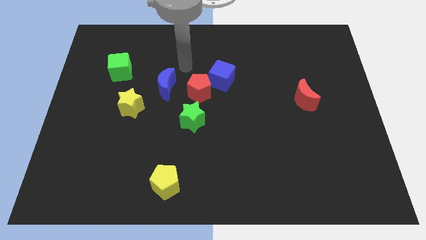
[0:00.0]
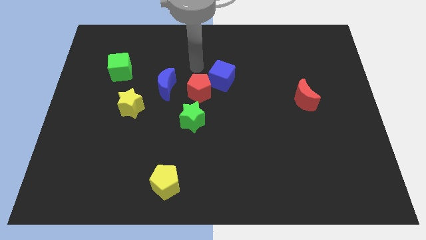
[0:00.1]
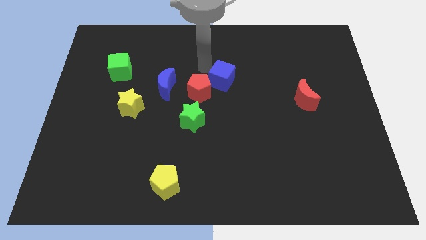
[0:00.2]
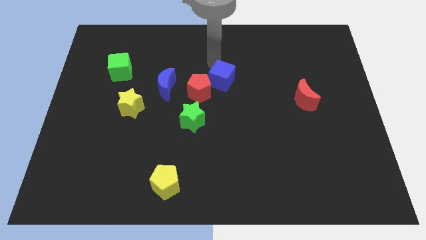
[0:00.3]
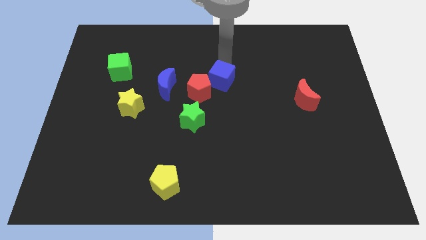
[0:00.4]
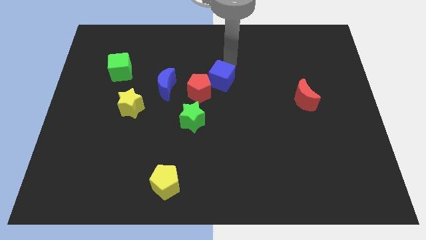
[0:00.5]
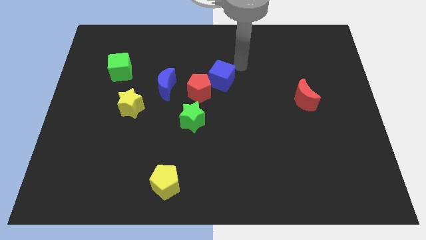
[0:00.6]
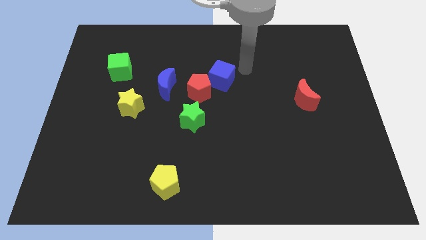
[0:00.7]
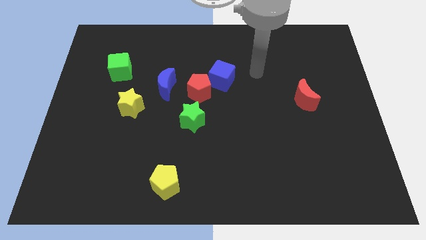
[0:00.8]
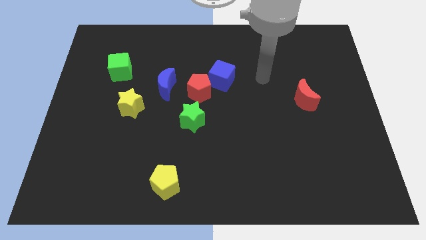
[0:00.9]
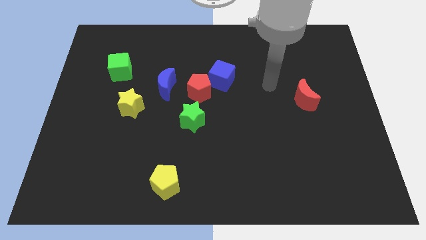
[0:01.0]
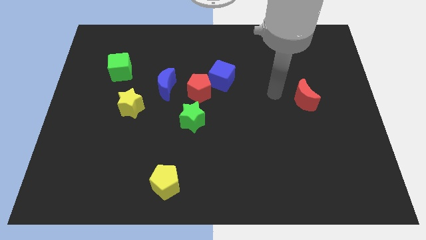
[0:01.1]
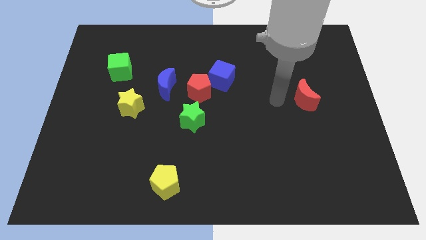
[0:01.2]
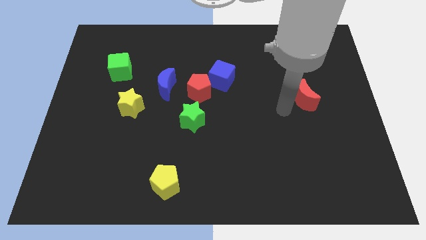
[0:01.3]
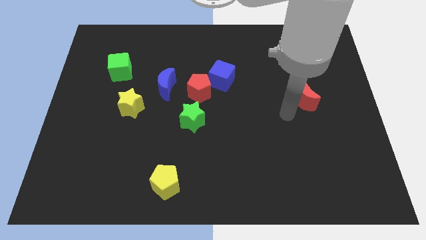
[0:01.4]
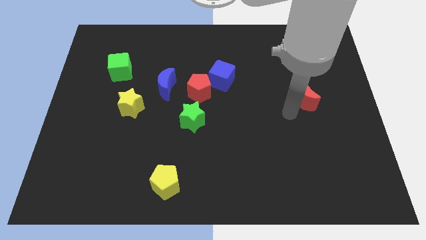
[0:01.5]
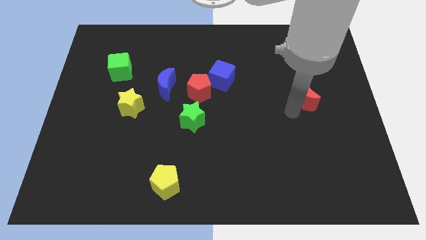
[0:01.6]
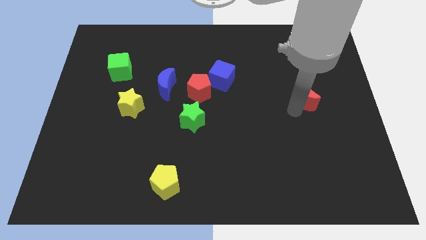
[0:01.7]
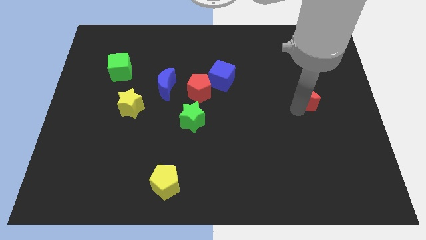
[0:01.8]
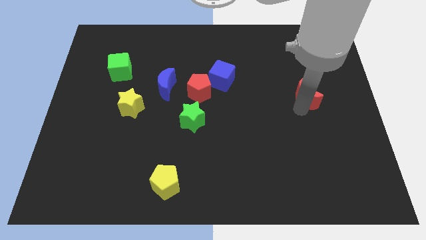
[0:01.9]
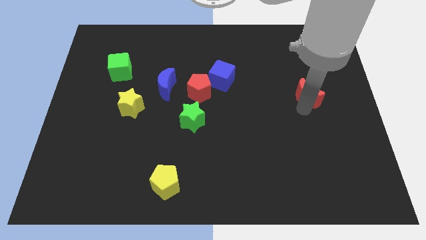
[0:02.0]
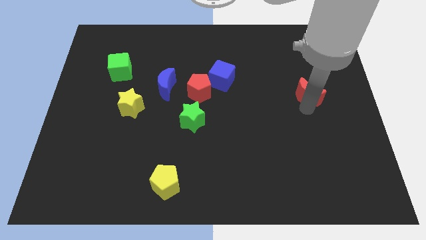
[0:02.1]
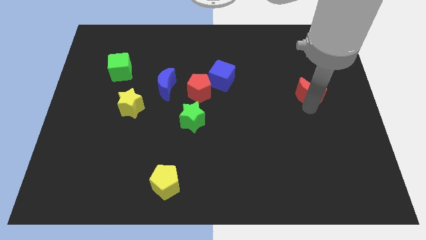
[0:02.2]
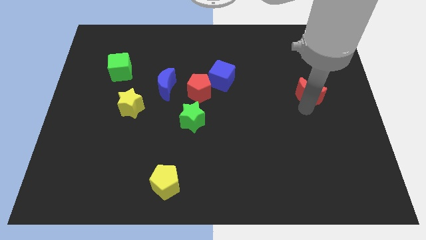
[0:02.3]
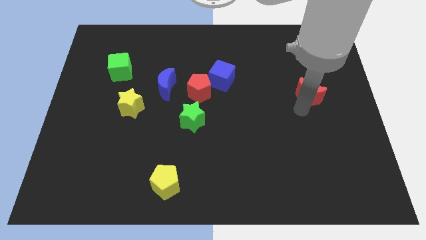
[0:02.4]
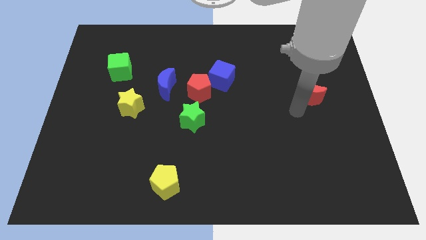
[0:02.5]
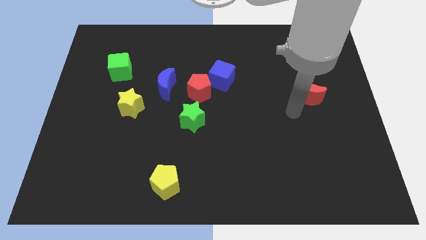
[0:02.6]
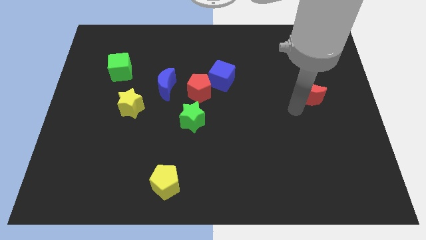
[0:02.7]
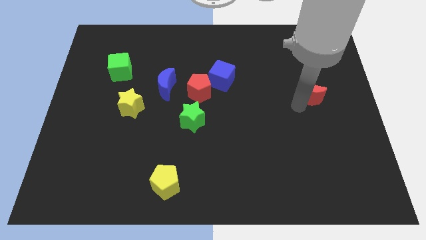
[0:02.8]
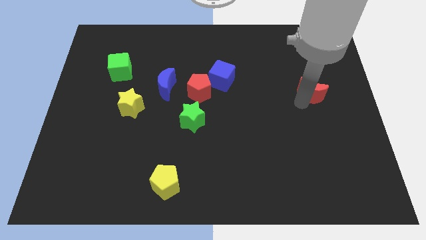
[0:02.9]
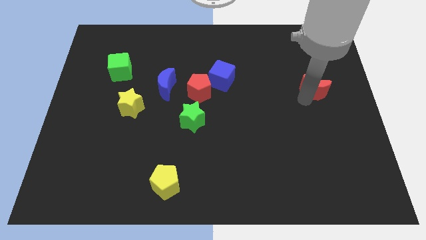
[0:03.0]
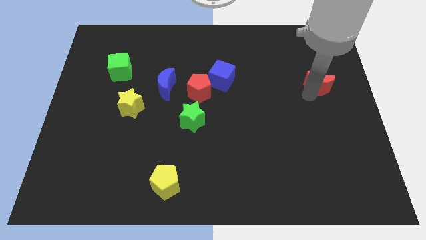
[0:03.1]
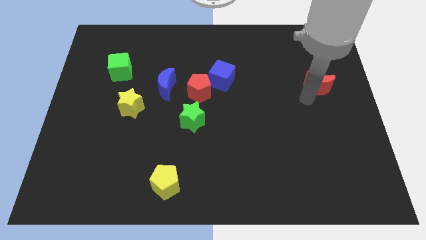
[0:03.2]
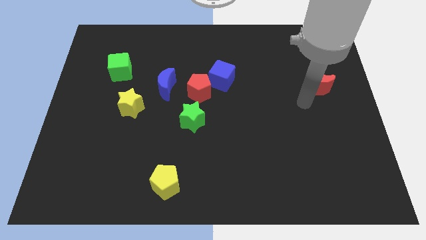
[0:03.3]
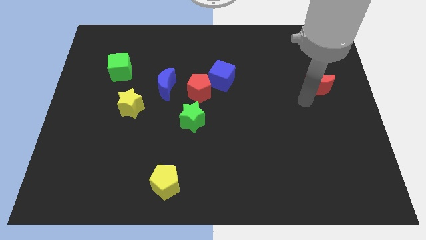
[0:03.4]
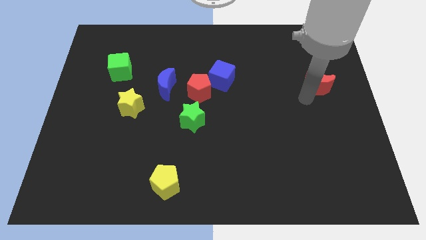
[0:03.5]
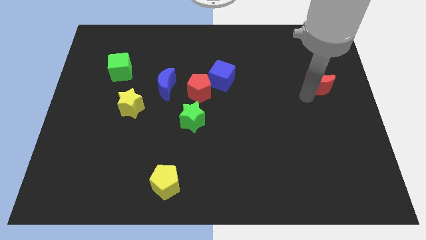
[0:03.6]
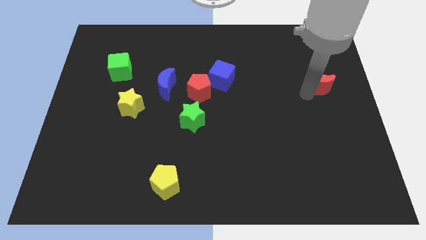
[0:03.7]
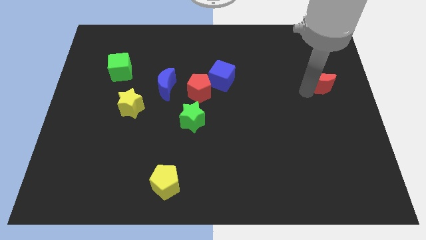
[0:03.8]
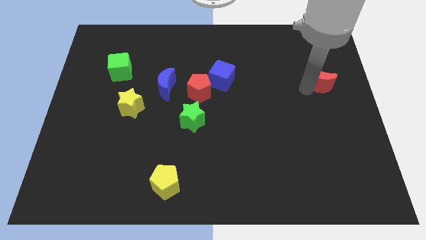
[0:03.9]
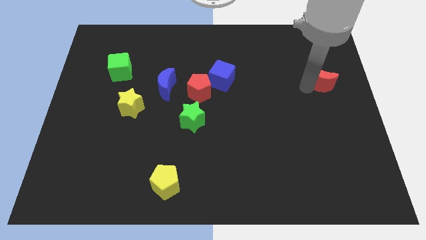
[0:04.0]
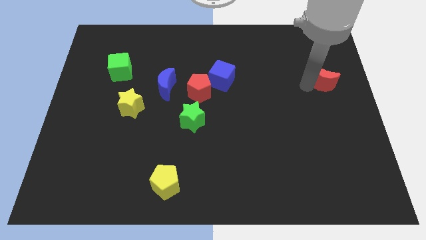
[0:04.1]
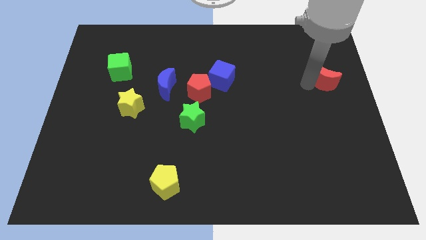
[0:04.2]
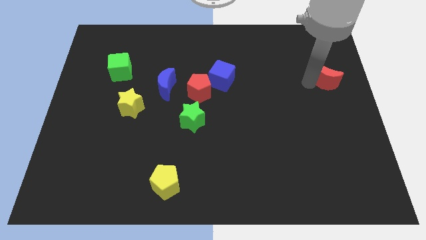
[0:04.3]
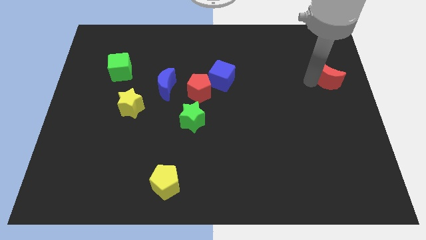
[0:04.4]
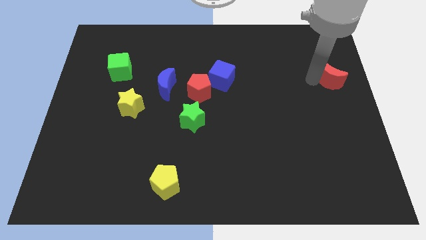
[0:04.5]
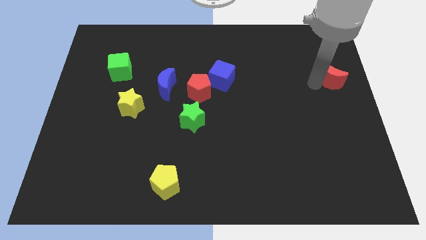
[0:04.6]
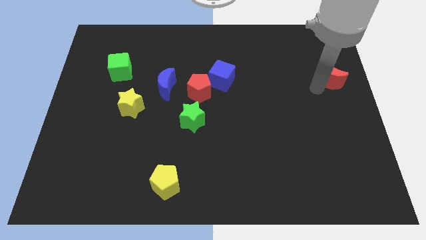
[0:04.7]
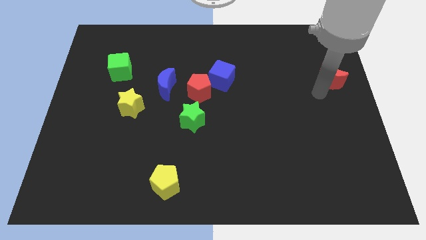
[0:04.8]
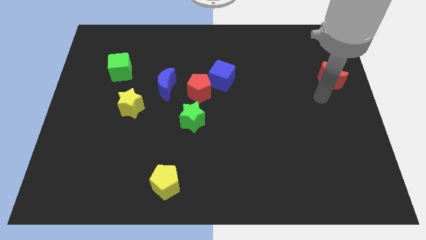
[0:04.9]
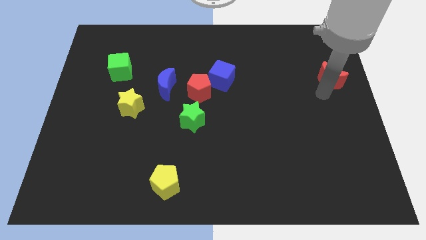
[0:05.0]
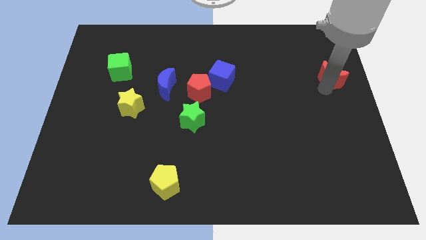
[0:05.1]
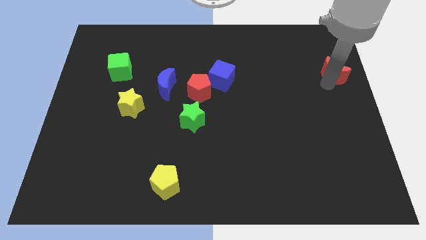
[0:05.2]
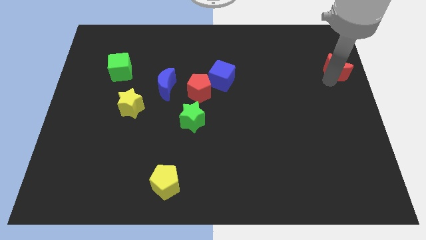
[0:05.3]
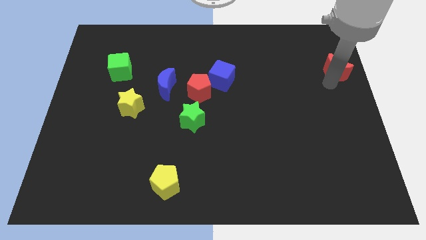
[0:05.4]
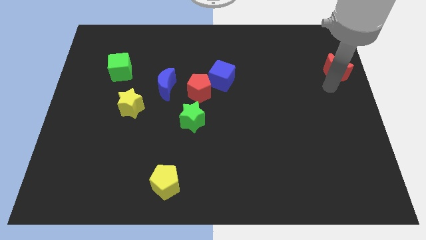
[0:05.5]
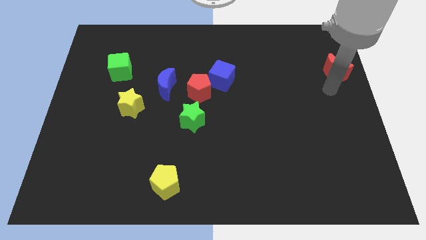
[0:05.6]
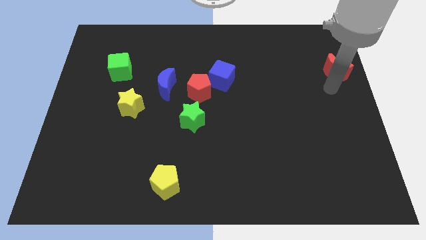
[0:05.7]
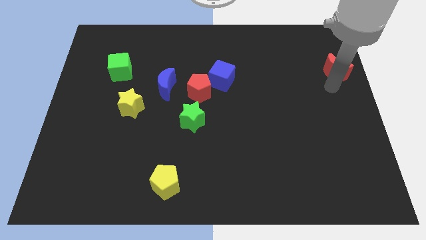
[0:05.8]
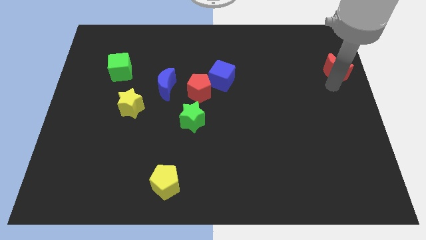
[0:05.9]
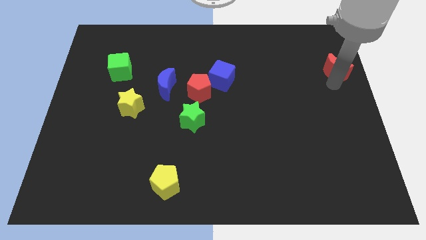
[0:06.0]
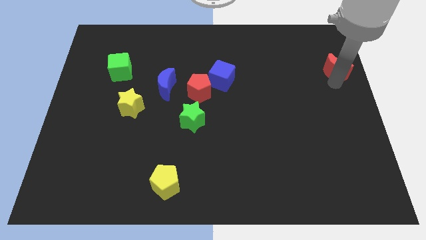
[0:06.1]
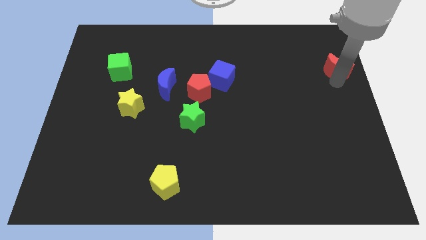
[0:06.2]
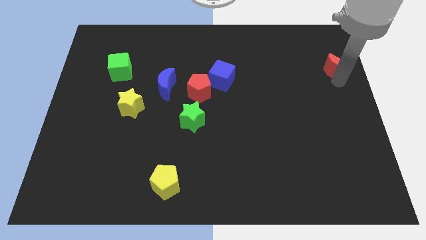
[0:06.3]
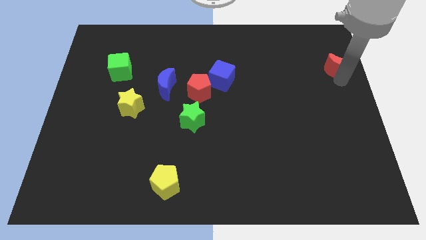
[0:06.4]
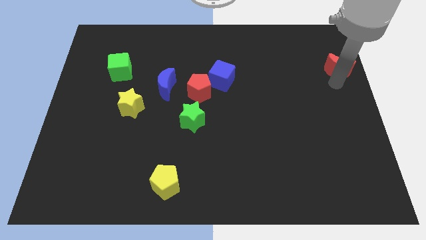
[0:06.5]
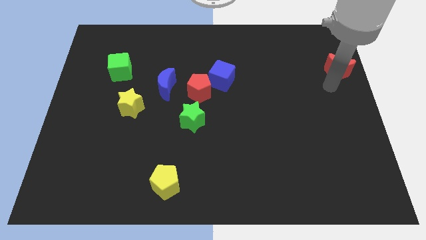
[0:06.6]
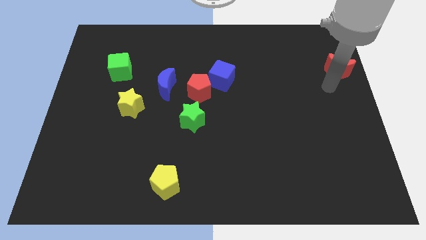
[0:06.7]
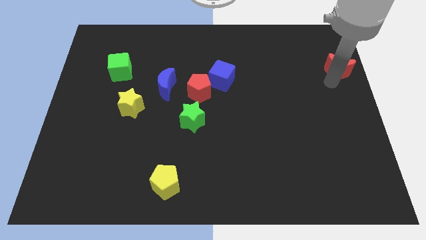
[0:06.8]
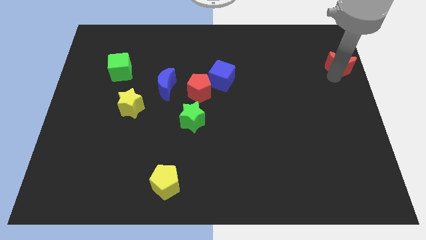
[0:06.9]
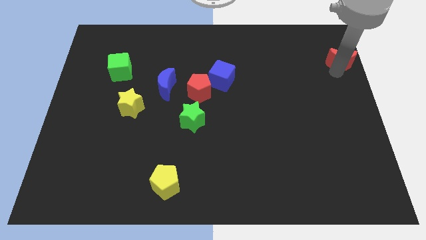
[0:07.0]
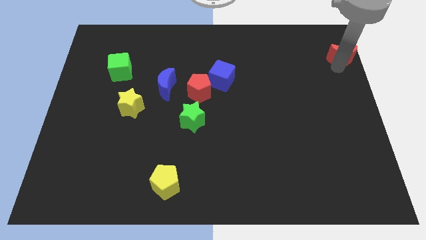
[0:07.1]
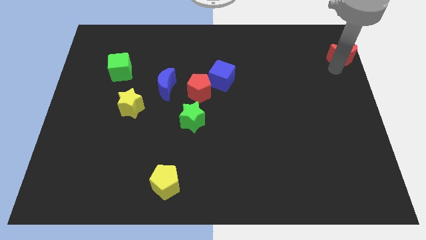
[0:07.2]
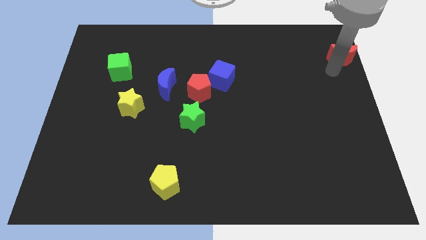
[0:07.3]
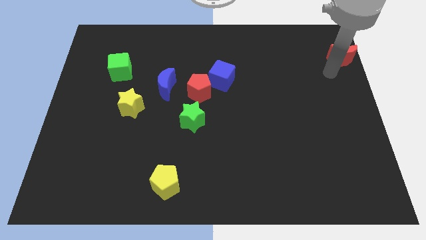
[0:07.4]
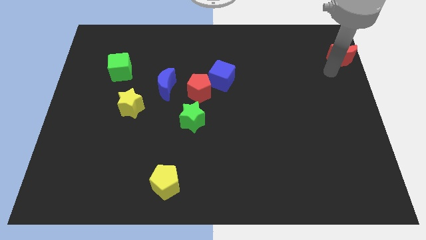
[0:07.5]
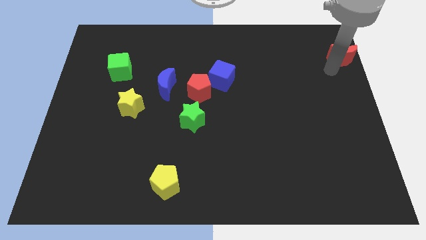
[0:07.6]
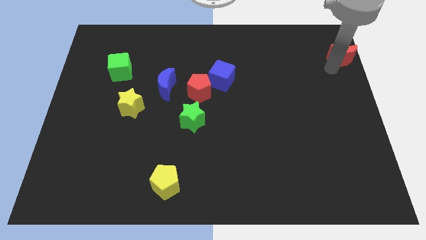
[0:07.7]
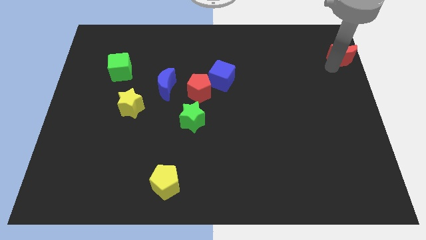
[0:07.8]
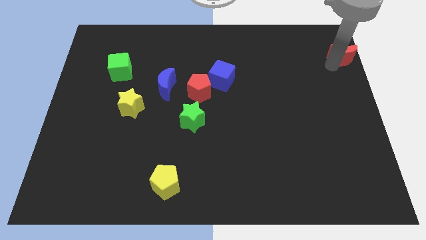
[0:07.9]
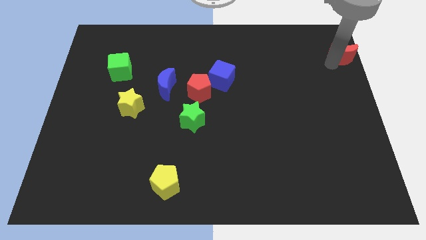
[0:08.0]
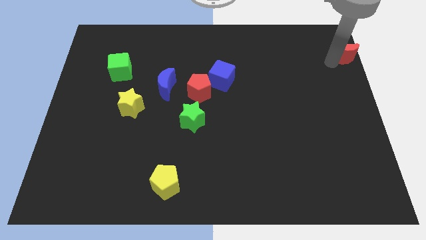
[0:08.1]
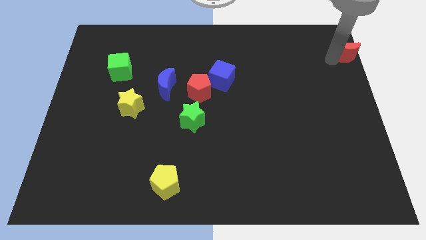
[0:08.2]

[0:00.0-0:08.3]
slide the red moon to the top right corner
